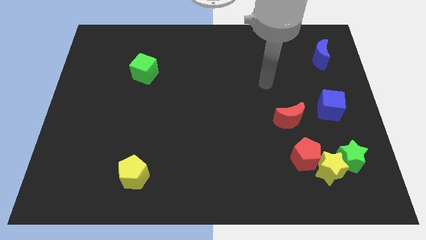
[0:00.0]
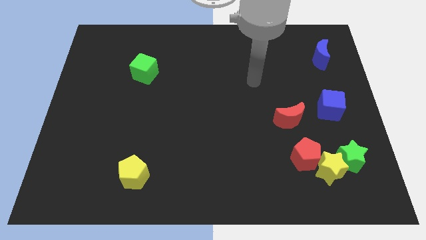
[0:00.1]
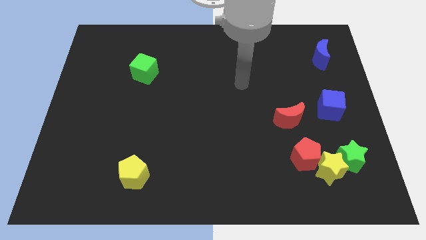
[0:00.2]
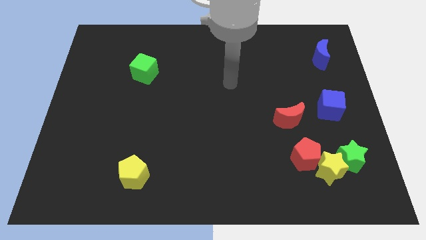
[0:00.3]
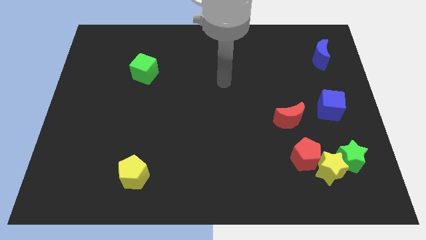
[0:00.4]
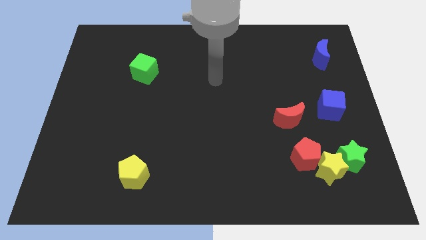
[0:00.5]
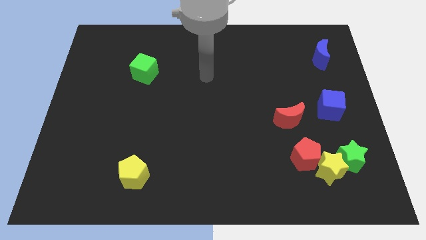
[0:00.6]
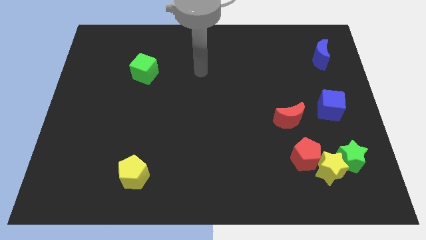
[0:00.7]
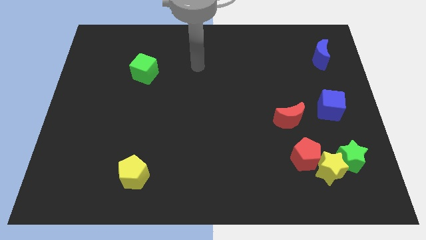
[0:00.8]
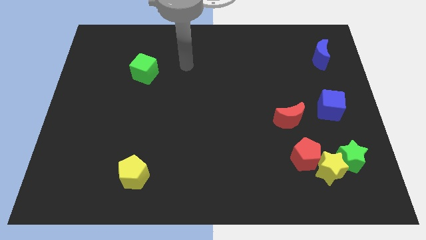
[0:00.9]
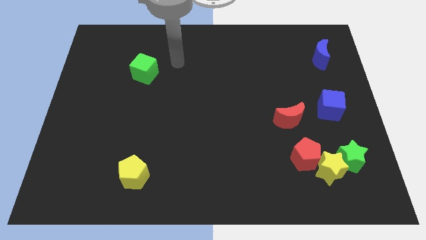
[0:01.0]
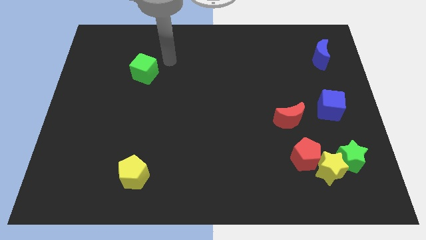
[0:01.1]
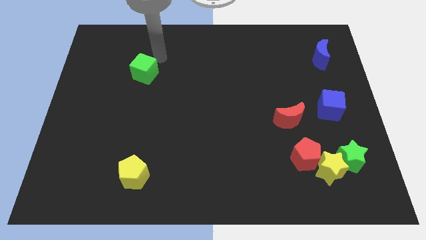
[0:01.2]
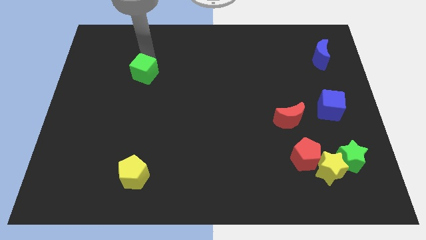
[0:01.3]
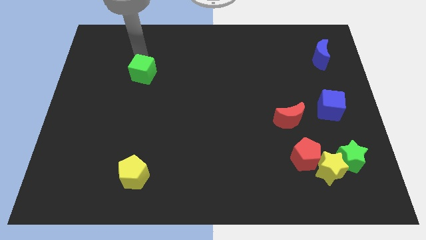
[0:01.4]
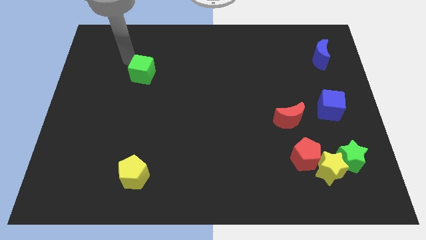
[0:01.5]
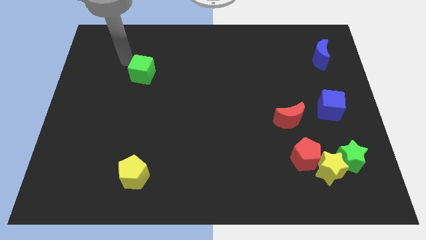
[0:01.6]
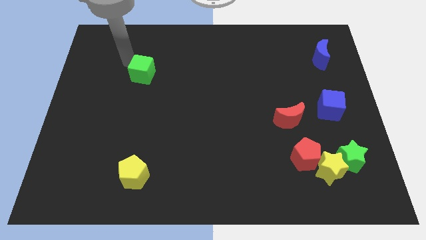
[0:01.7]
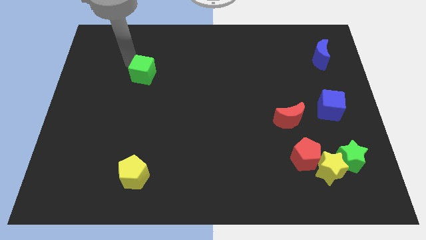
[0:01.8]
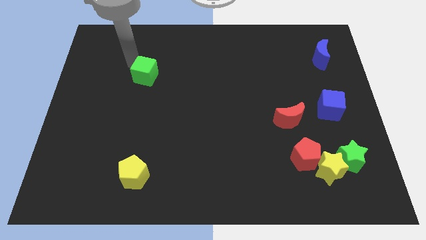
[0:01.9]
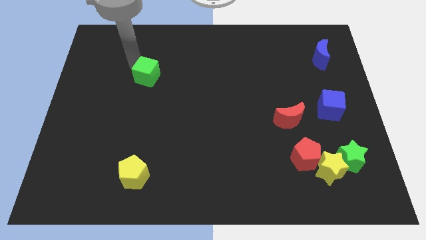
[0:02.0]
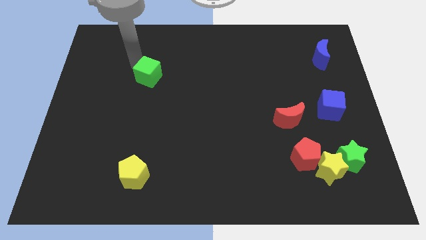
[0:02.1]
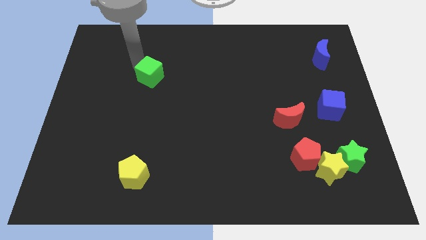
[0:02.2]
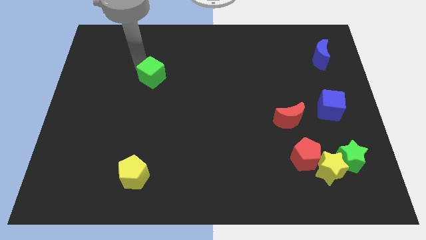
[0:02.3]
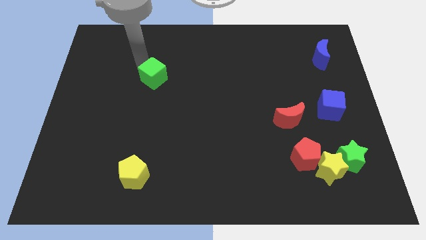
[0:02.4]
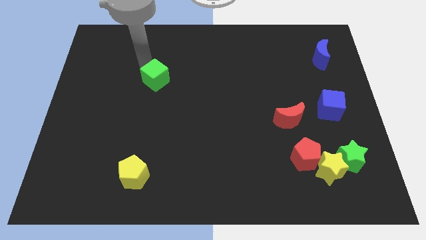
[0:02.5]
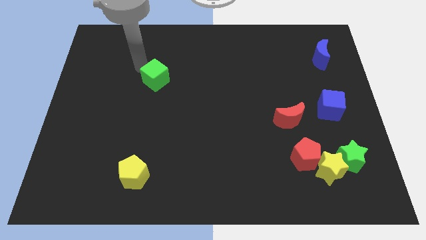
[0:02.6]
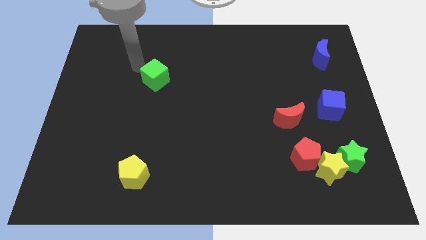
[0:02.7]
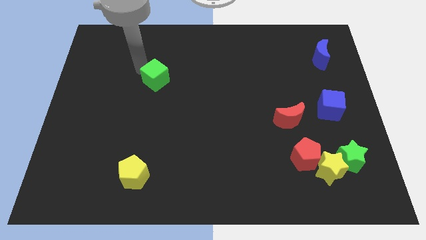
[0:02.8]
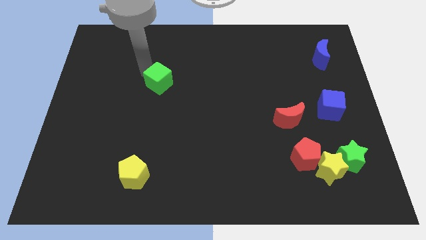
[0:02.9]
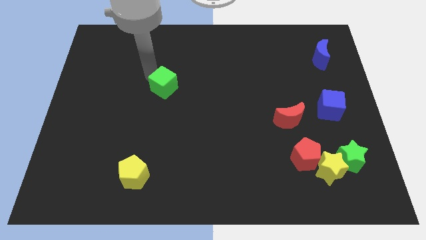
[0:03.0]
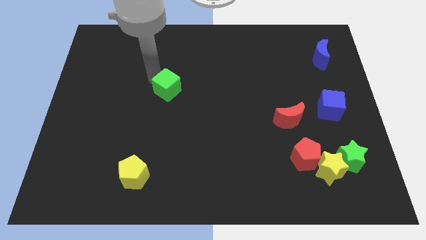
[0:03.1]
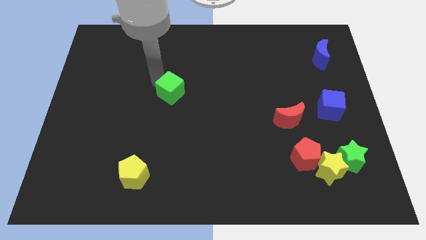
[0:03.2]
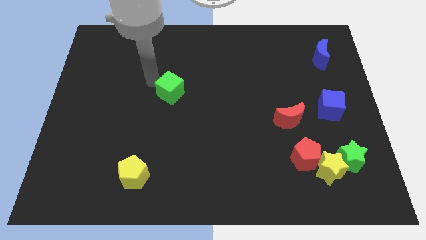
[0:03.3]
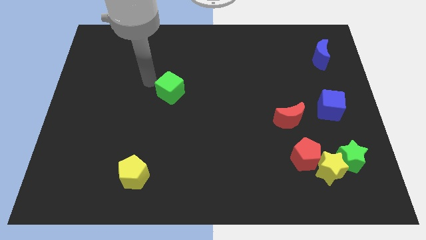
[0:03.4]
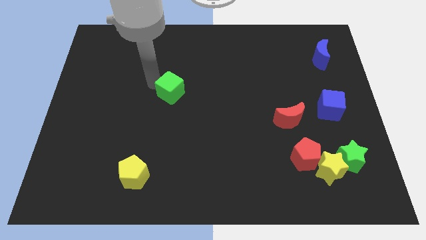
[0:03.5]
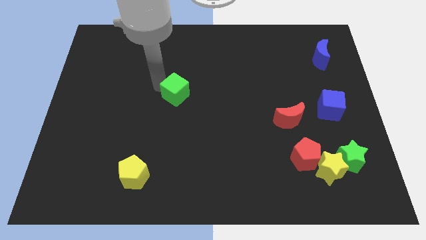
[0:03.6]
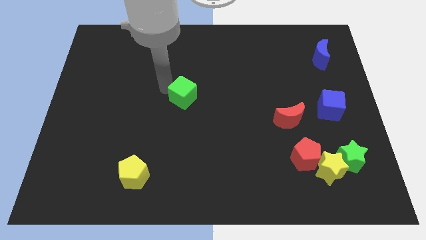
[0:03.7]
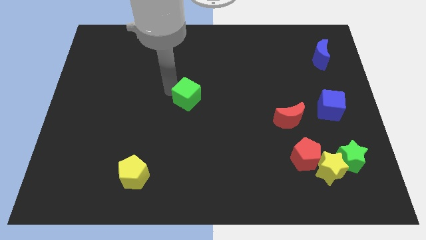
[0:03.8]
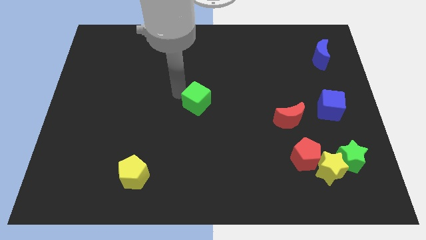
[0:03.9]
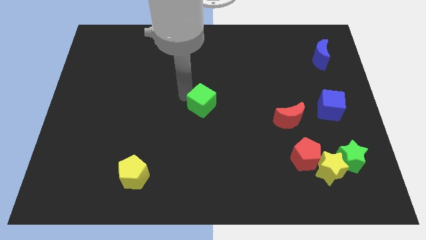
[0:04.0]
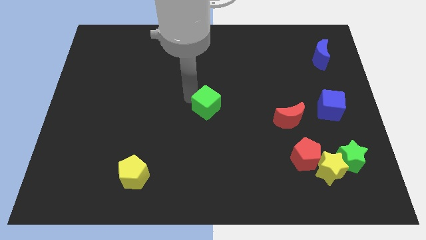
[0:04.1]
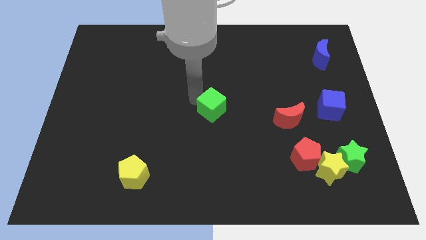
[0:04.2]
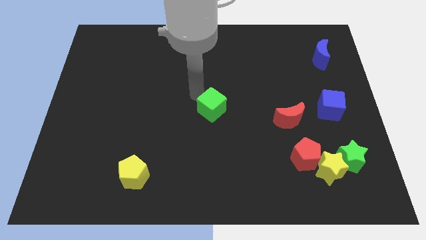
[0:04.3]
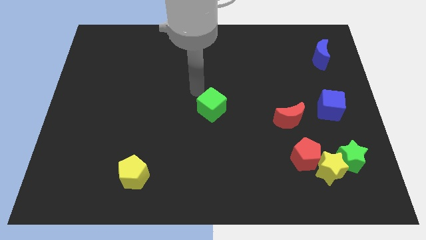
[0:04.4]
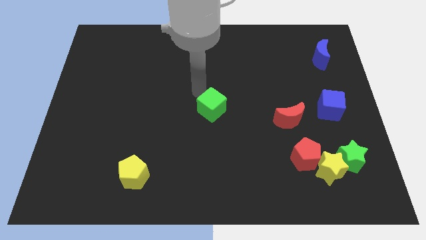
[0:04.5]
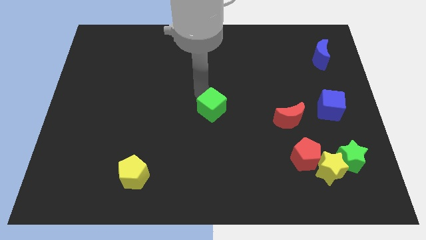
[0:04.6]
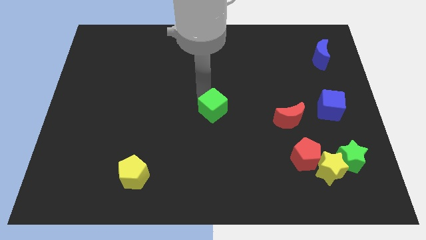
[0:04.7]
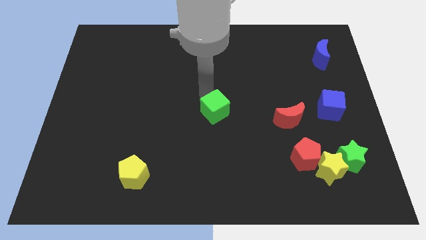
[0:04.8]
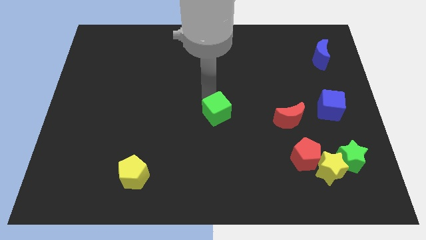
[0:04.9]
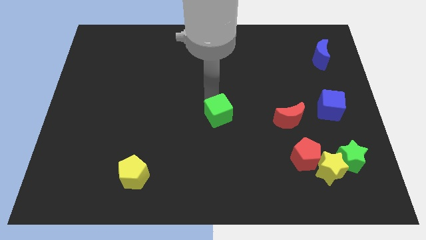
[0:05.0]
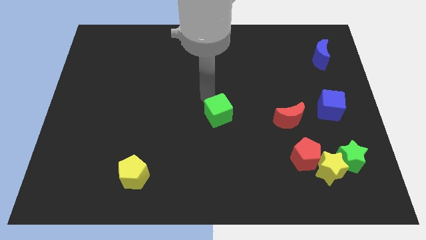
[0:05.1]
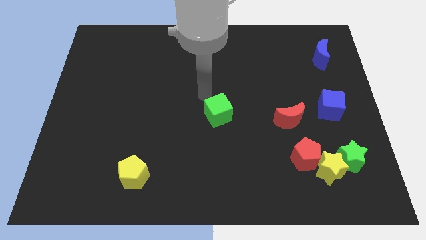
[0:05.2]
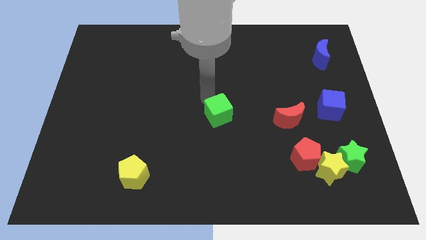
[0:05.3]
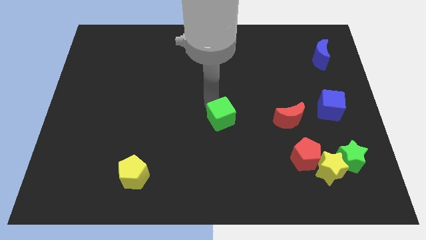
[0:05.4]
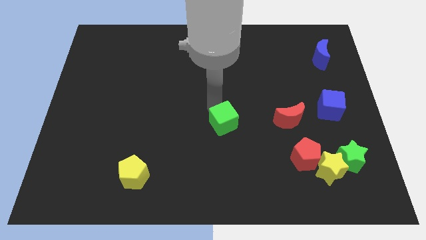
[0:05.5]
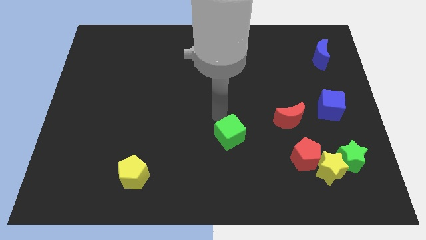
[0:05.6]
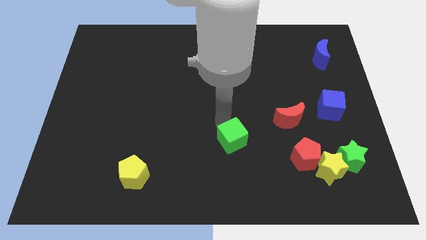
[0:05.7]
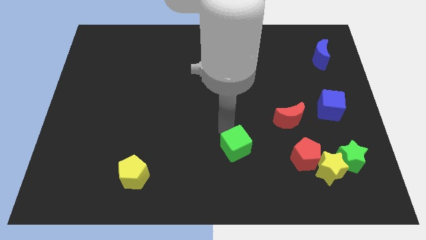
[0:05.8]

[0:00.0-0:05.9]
slide the green cube left of the red pentagon

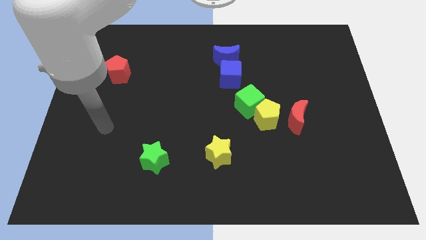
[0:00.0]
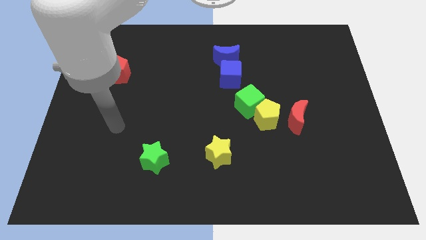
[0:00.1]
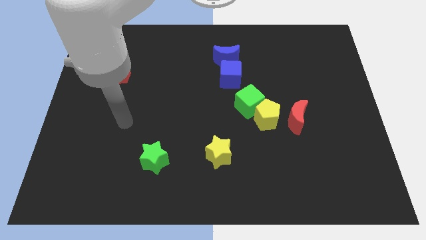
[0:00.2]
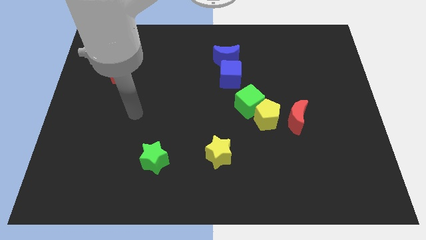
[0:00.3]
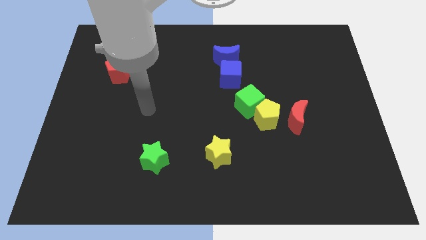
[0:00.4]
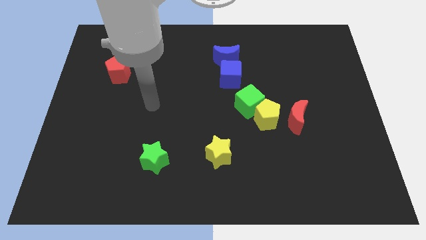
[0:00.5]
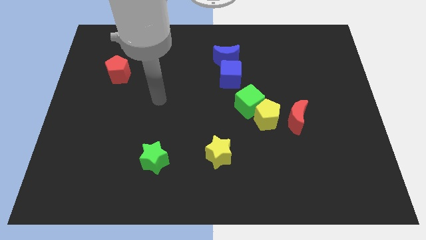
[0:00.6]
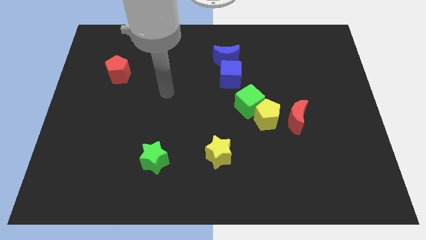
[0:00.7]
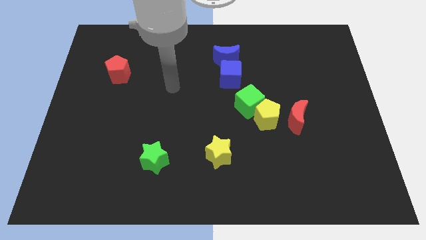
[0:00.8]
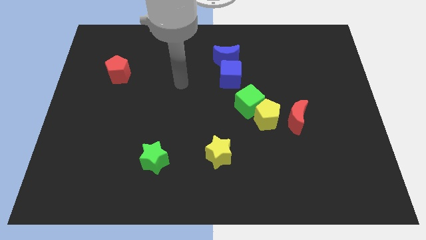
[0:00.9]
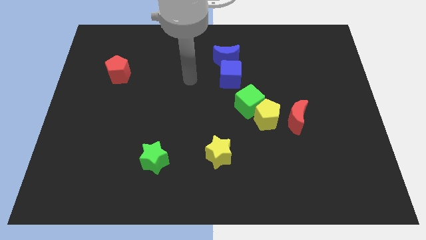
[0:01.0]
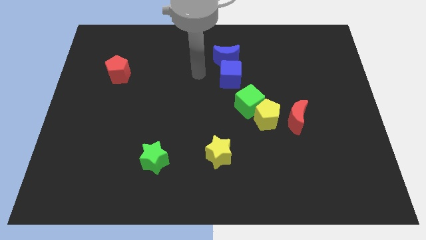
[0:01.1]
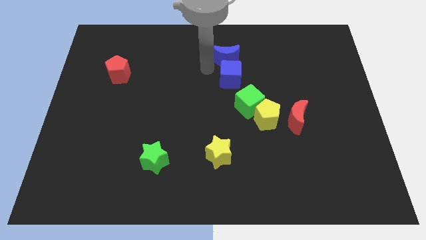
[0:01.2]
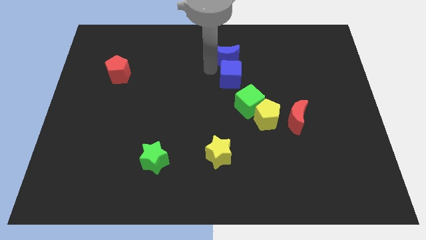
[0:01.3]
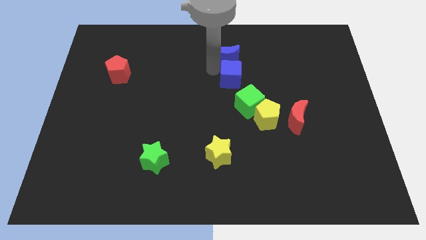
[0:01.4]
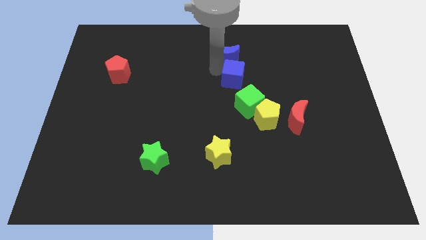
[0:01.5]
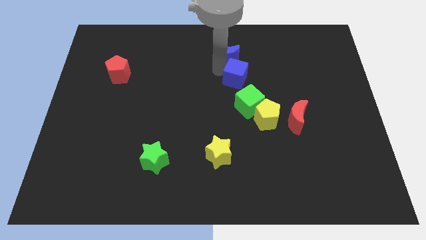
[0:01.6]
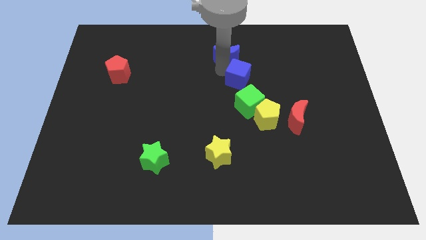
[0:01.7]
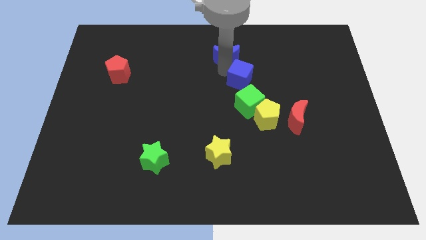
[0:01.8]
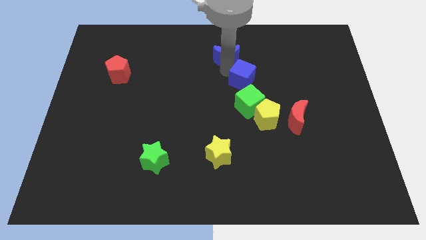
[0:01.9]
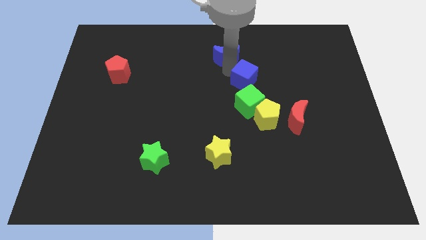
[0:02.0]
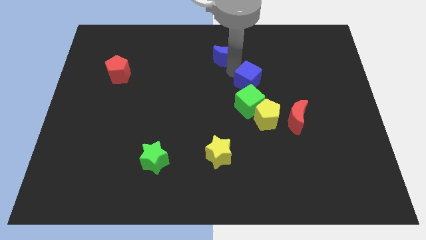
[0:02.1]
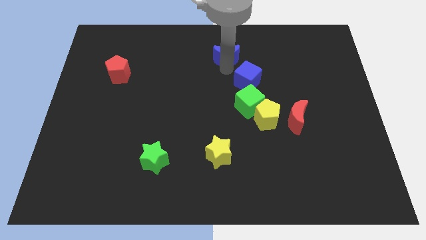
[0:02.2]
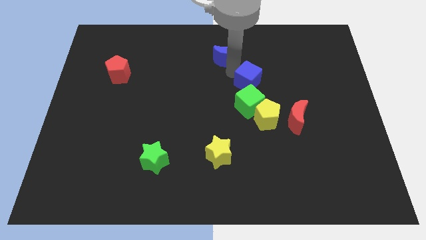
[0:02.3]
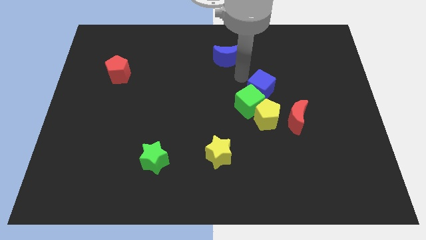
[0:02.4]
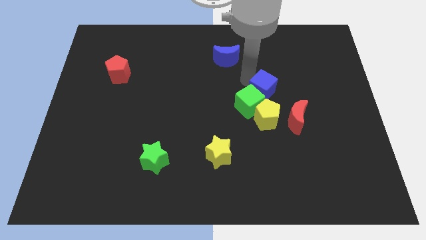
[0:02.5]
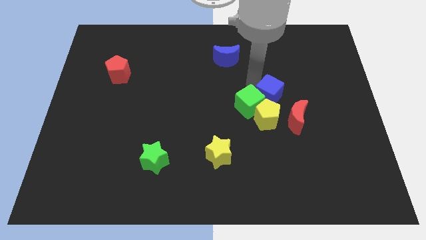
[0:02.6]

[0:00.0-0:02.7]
put the blue cube to the top right side of the yellow pentagon
